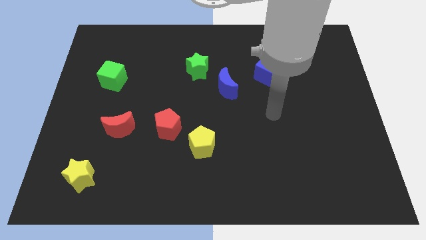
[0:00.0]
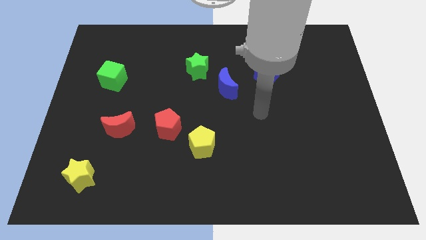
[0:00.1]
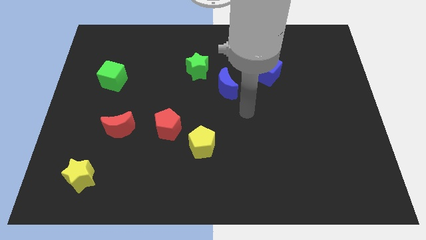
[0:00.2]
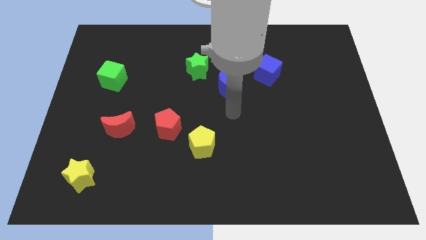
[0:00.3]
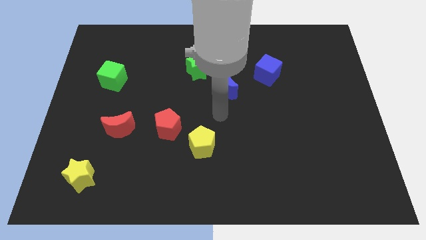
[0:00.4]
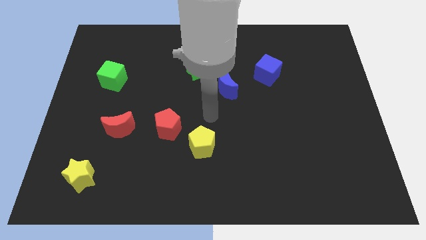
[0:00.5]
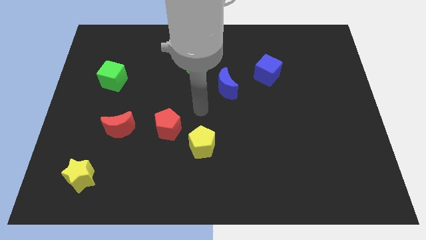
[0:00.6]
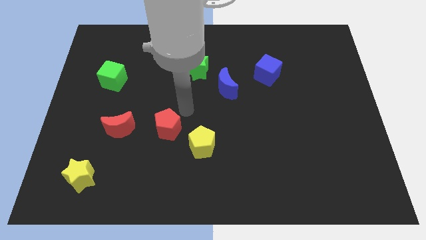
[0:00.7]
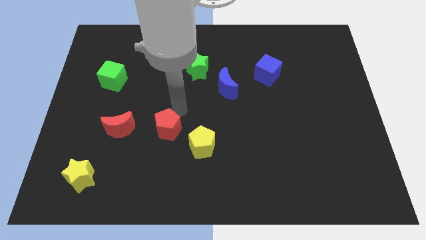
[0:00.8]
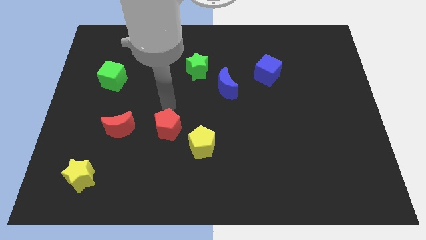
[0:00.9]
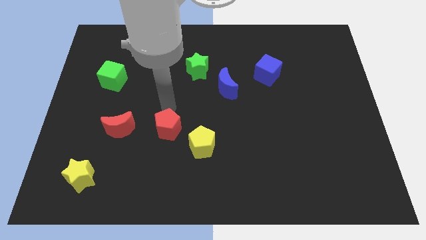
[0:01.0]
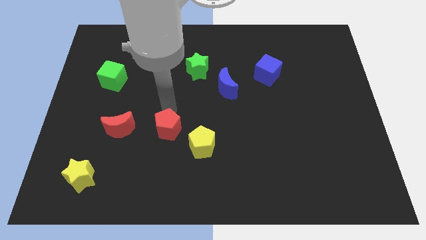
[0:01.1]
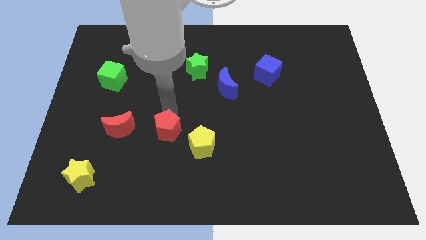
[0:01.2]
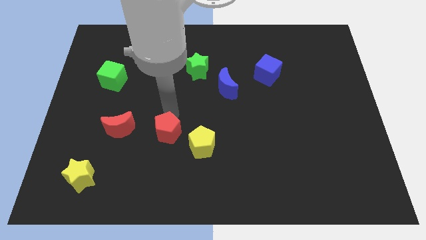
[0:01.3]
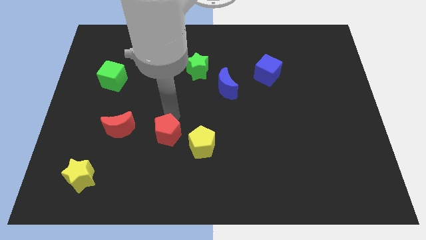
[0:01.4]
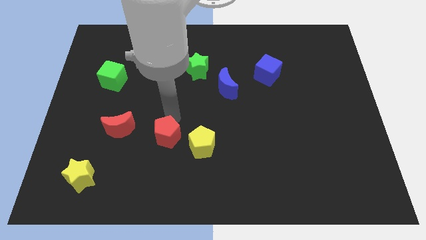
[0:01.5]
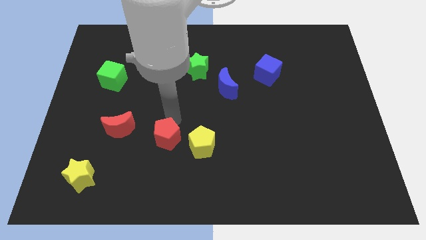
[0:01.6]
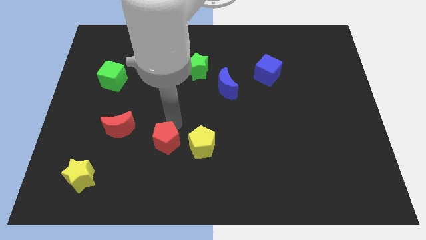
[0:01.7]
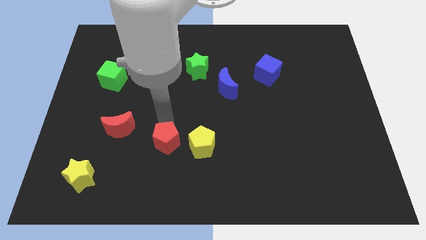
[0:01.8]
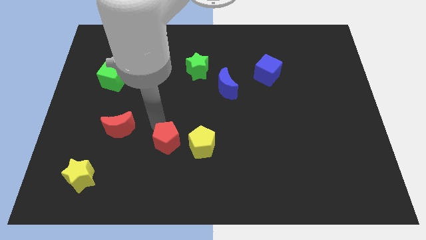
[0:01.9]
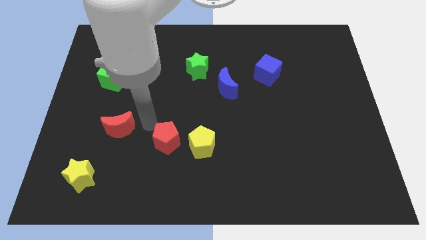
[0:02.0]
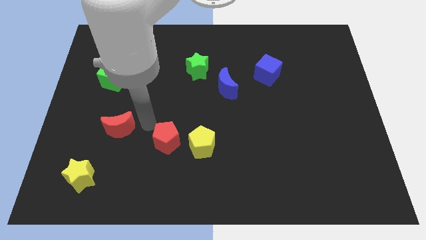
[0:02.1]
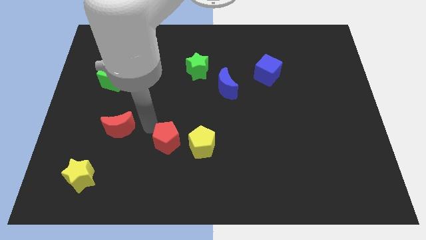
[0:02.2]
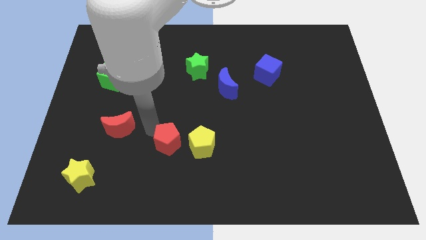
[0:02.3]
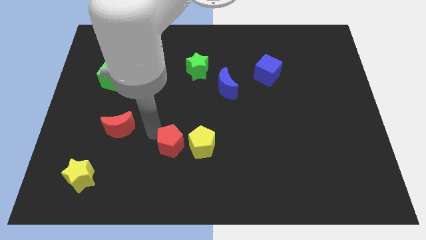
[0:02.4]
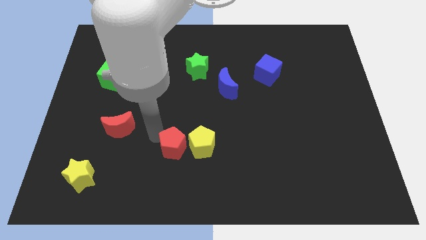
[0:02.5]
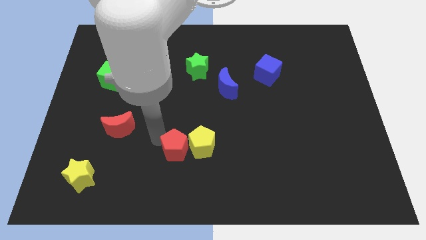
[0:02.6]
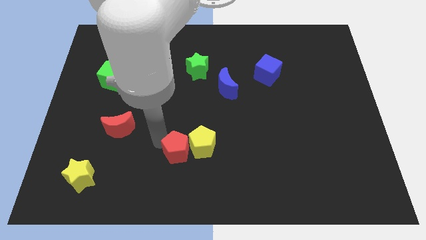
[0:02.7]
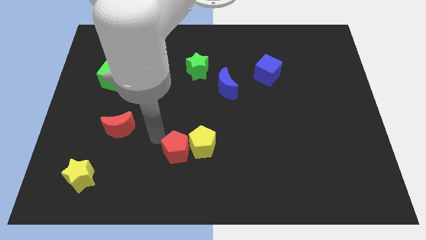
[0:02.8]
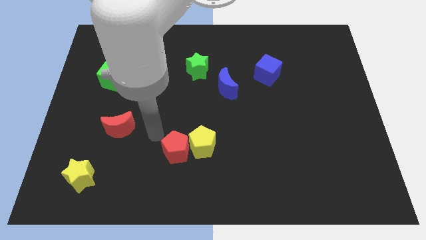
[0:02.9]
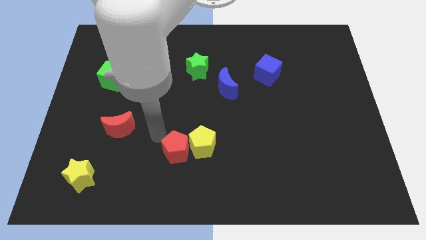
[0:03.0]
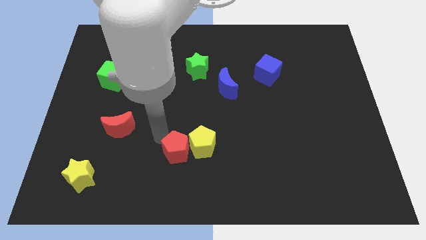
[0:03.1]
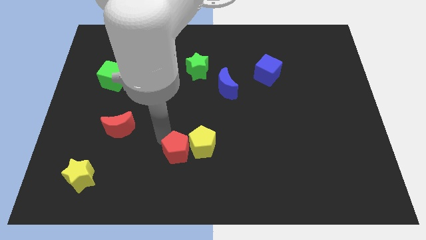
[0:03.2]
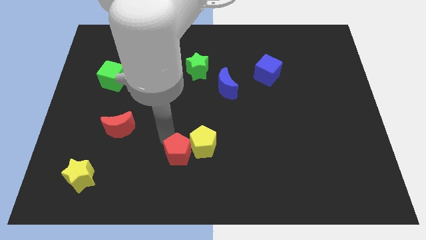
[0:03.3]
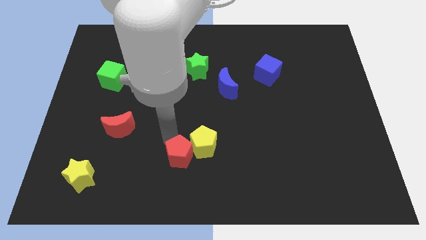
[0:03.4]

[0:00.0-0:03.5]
slightly move the red pentagon diagonally down and to the right

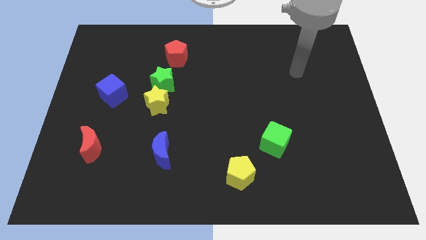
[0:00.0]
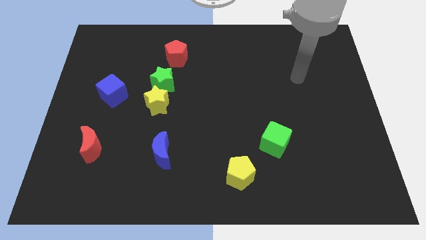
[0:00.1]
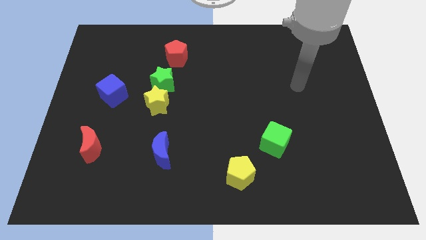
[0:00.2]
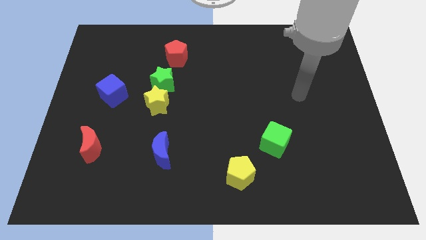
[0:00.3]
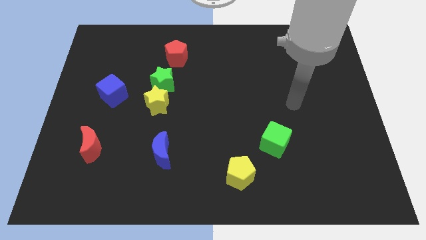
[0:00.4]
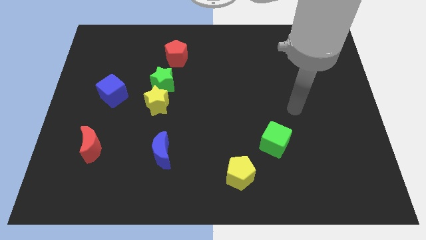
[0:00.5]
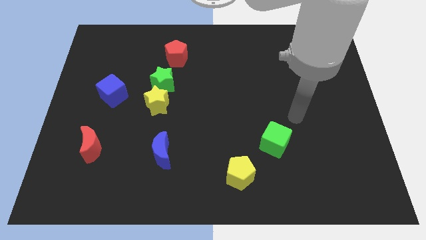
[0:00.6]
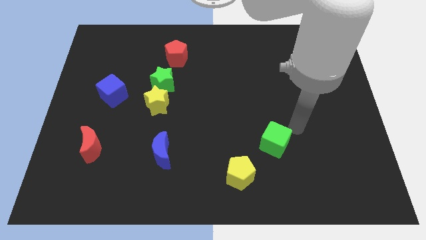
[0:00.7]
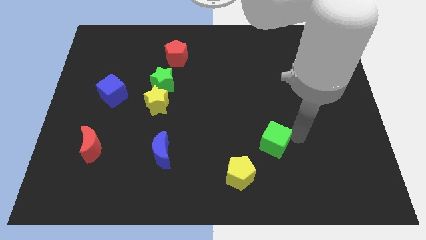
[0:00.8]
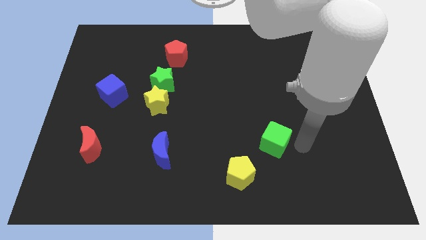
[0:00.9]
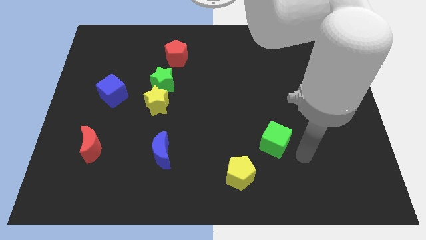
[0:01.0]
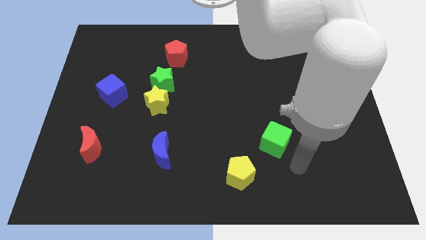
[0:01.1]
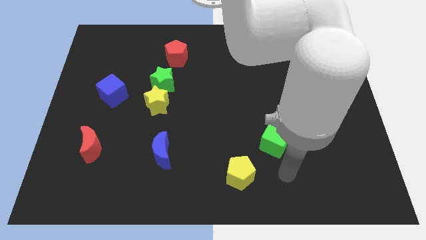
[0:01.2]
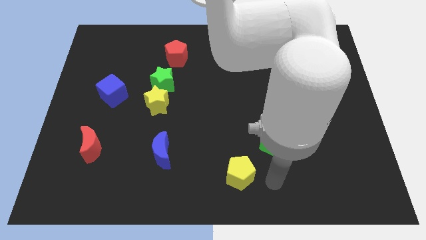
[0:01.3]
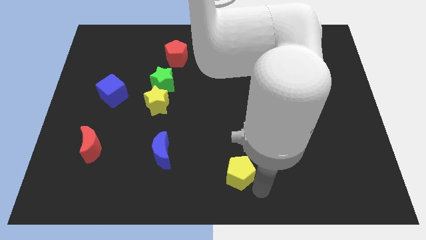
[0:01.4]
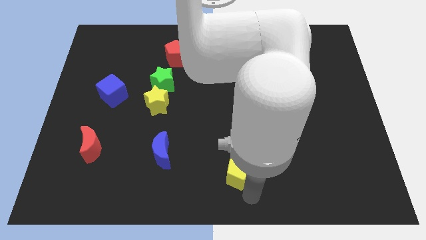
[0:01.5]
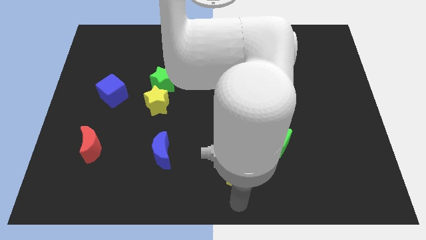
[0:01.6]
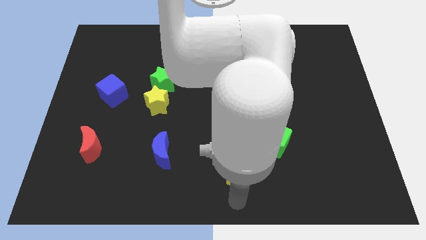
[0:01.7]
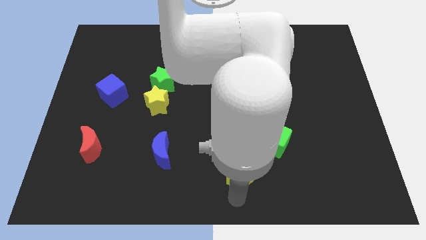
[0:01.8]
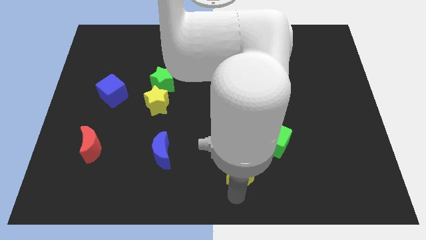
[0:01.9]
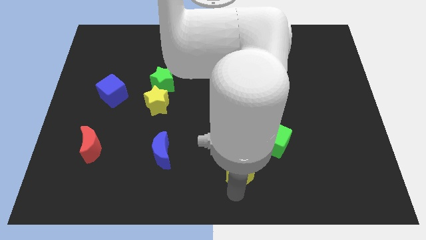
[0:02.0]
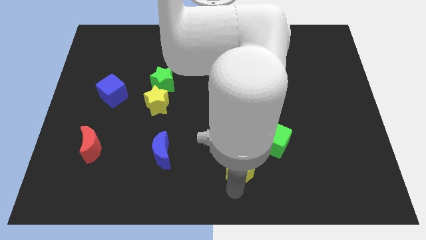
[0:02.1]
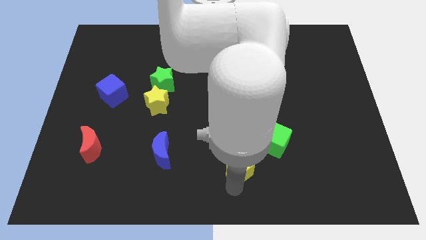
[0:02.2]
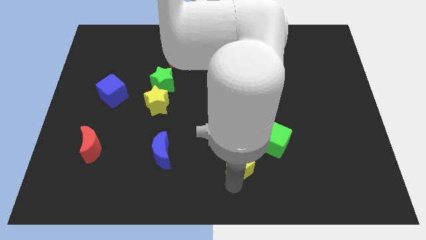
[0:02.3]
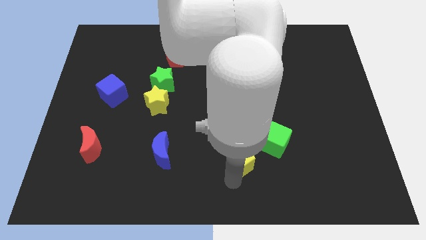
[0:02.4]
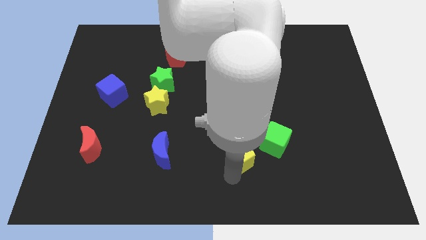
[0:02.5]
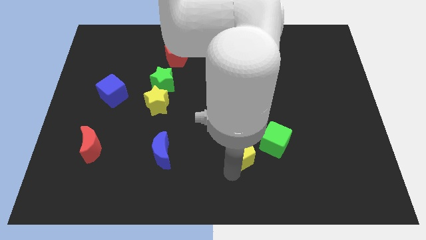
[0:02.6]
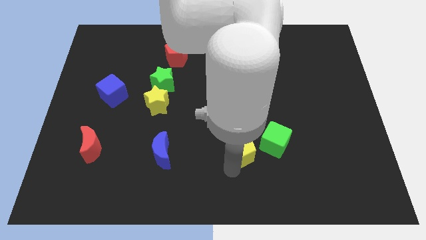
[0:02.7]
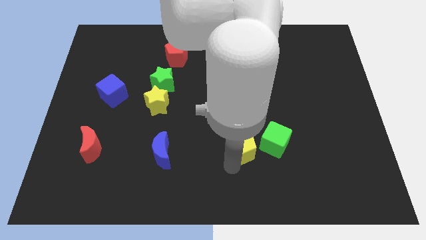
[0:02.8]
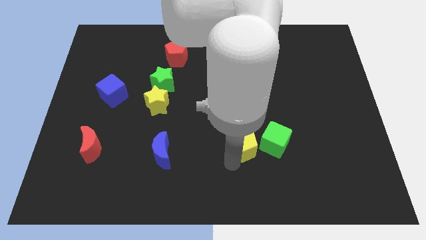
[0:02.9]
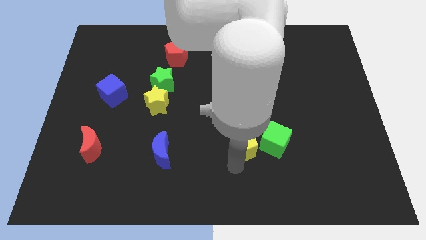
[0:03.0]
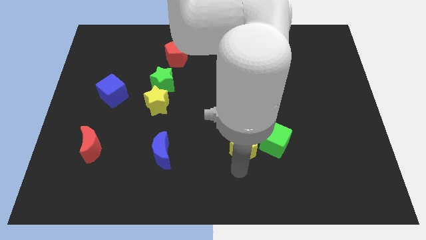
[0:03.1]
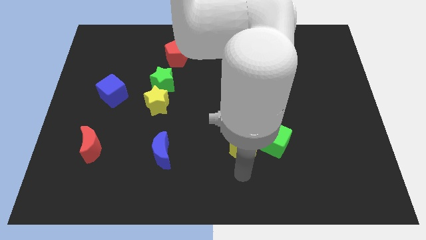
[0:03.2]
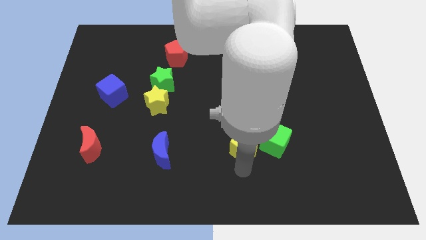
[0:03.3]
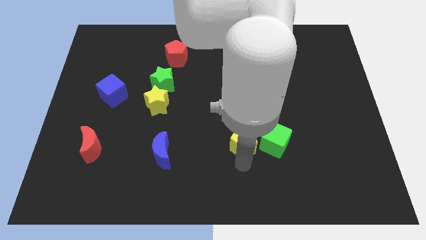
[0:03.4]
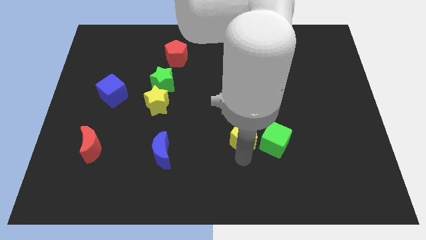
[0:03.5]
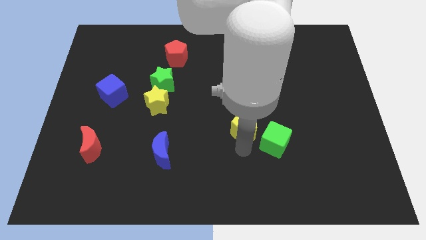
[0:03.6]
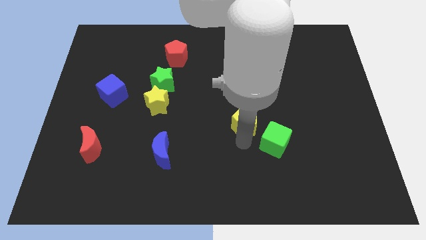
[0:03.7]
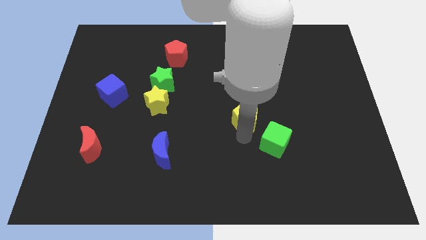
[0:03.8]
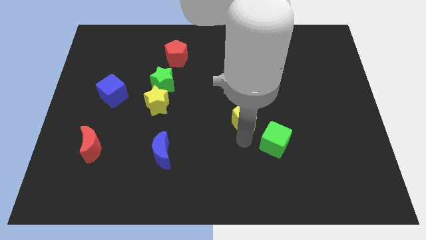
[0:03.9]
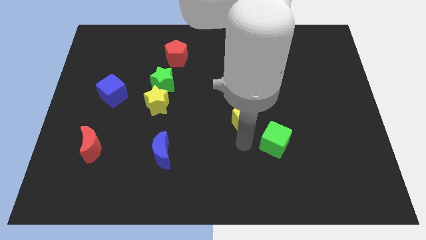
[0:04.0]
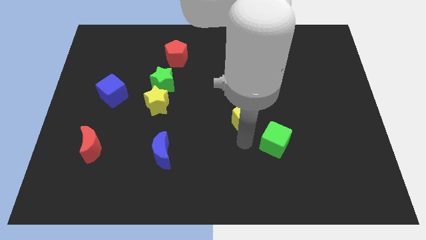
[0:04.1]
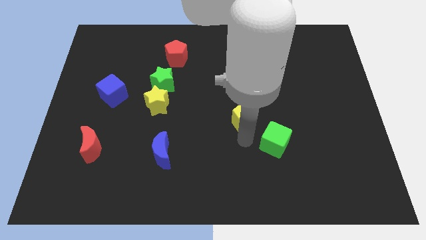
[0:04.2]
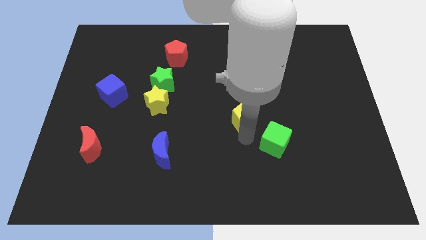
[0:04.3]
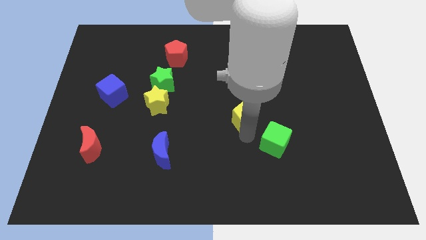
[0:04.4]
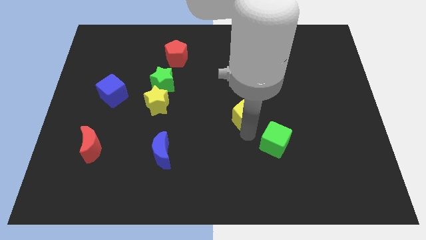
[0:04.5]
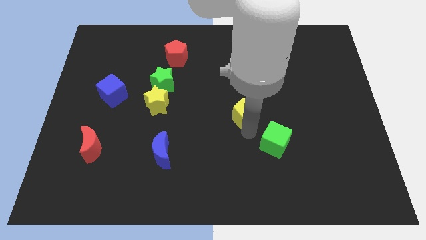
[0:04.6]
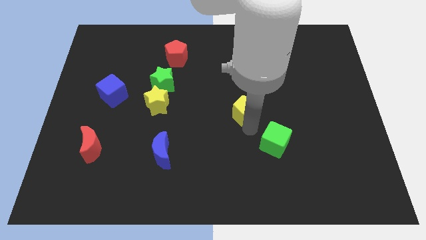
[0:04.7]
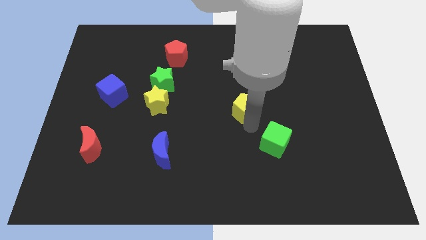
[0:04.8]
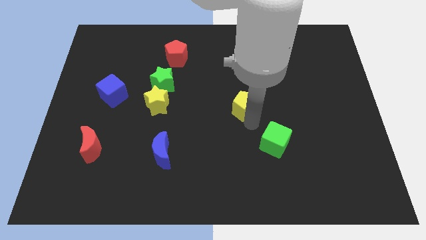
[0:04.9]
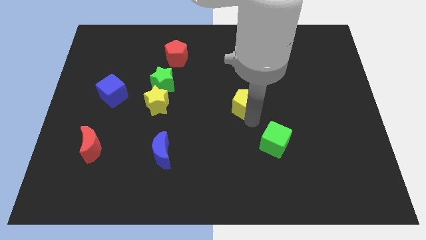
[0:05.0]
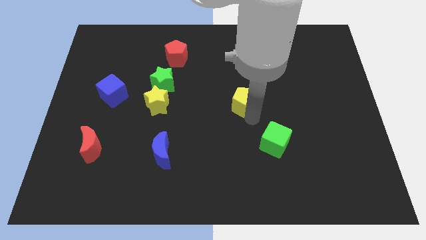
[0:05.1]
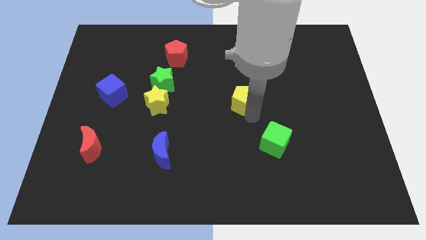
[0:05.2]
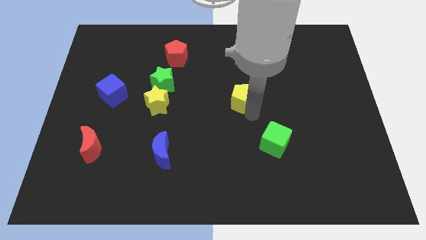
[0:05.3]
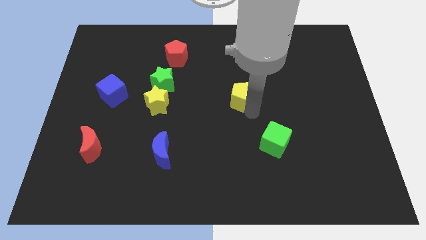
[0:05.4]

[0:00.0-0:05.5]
move the yellow pentagon up
